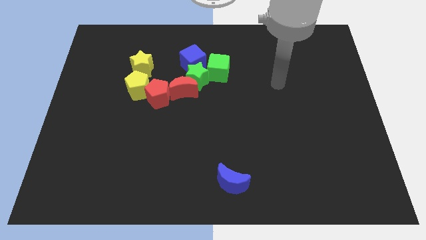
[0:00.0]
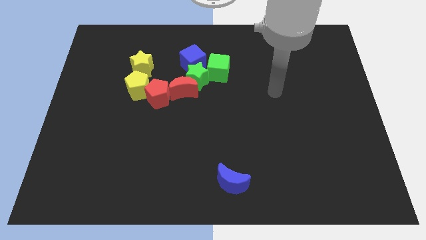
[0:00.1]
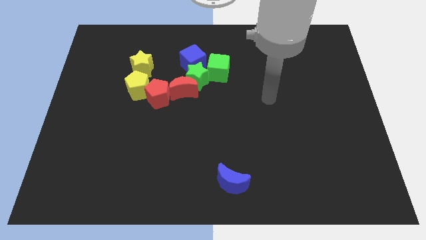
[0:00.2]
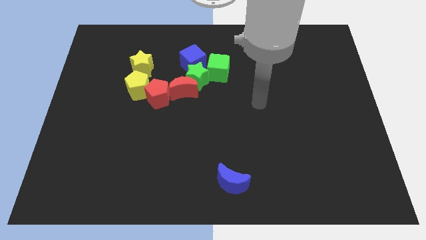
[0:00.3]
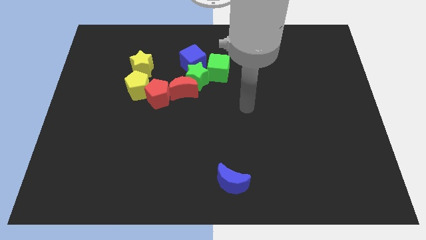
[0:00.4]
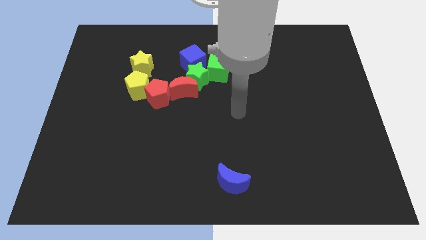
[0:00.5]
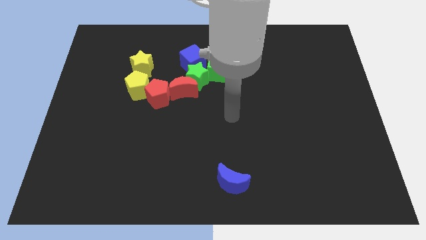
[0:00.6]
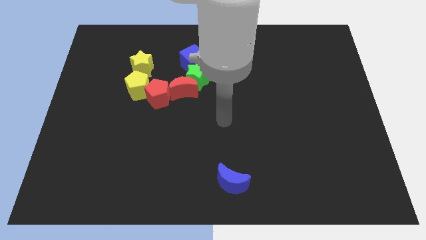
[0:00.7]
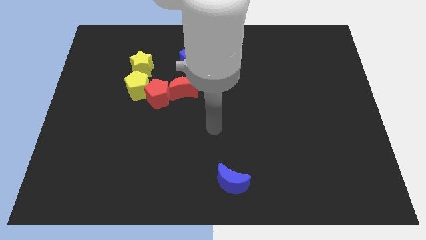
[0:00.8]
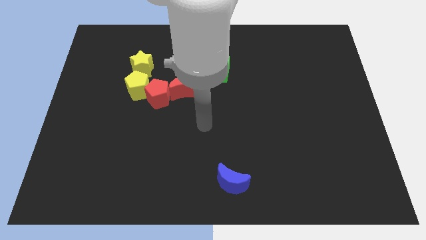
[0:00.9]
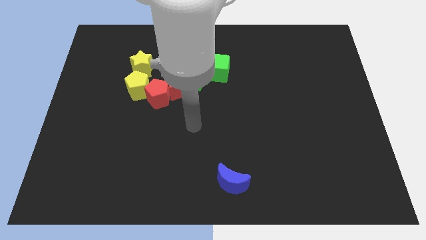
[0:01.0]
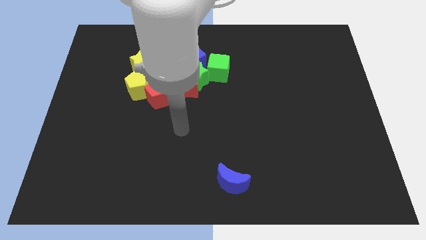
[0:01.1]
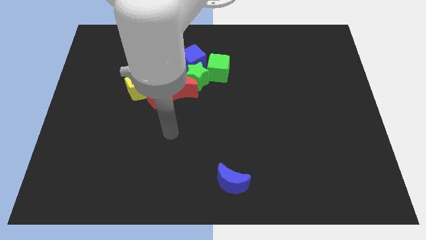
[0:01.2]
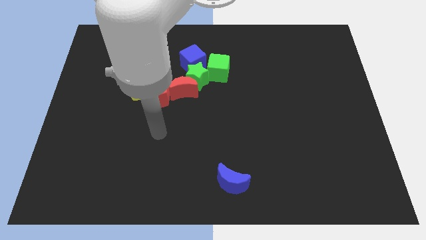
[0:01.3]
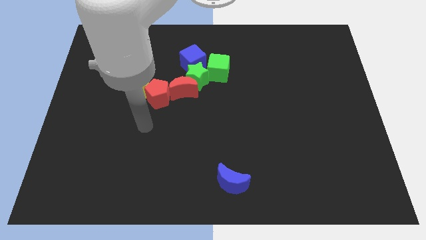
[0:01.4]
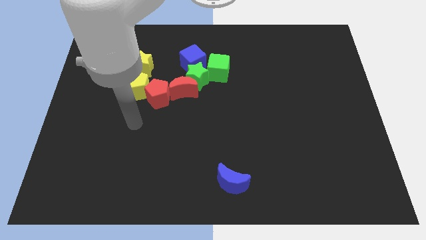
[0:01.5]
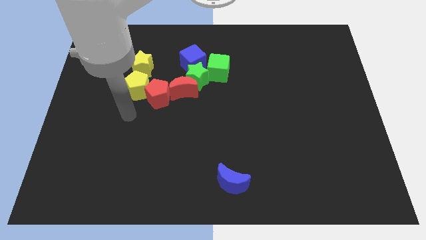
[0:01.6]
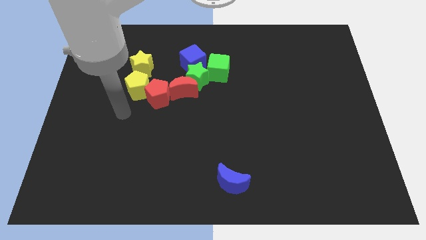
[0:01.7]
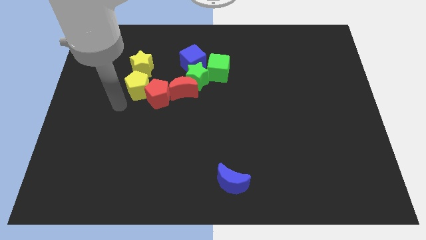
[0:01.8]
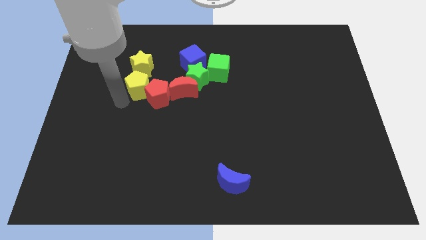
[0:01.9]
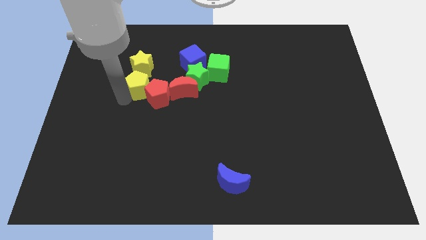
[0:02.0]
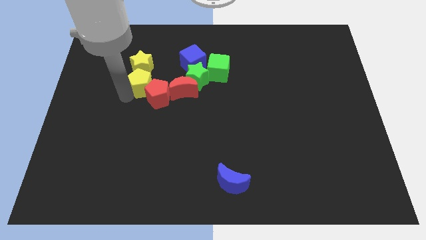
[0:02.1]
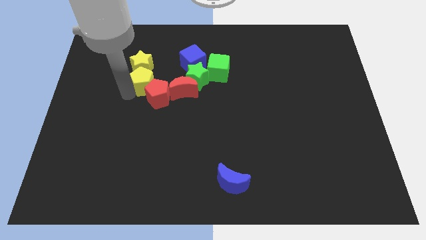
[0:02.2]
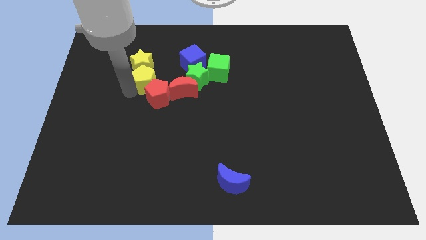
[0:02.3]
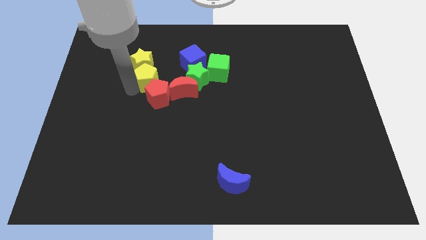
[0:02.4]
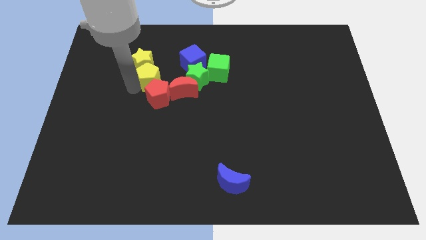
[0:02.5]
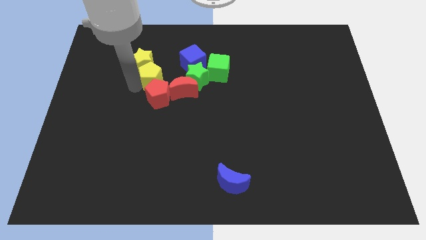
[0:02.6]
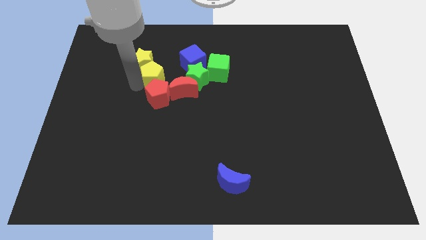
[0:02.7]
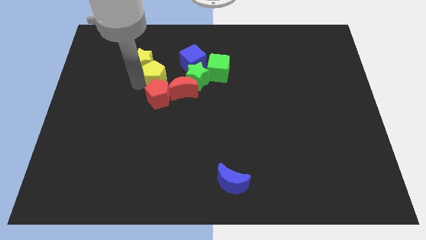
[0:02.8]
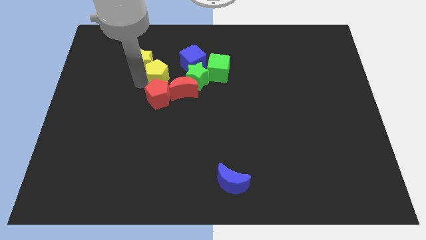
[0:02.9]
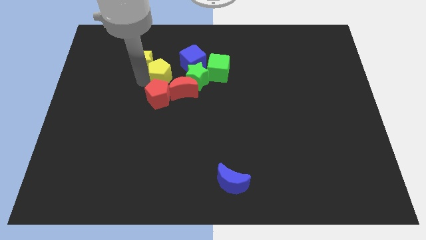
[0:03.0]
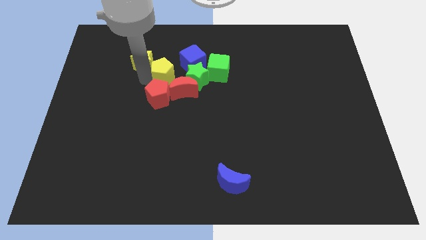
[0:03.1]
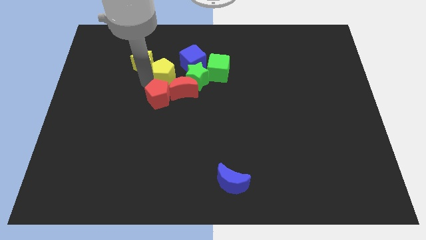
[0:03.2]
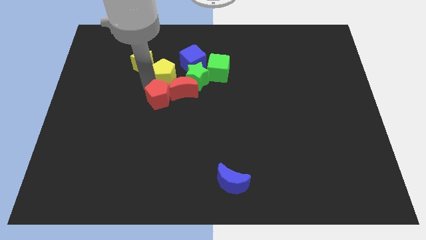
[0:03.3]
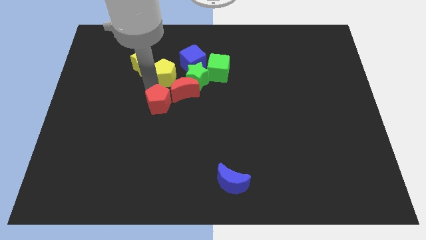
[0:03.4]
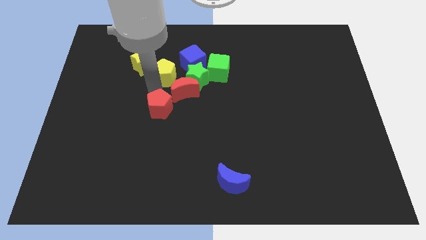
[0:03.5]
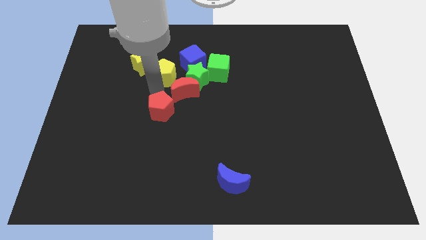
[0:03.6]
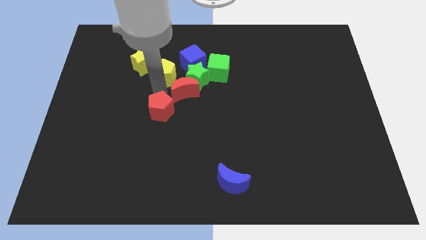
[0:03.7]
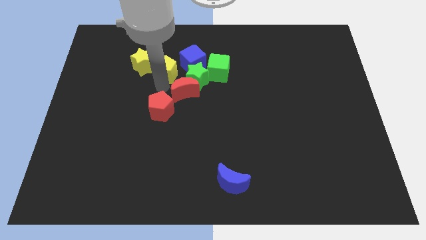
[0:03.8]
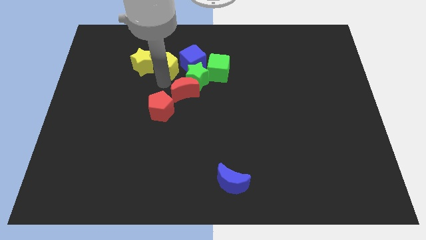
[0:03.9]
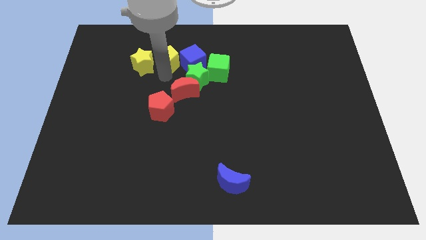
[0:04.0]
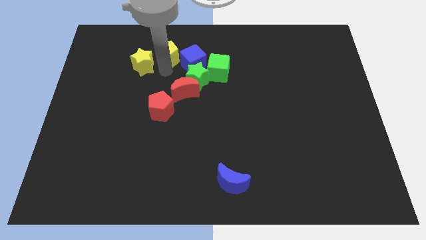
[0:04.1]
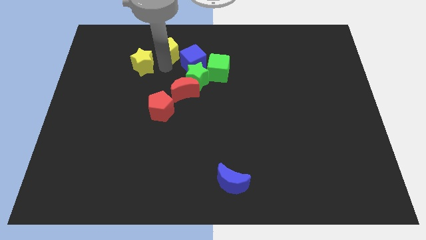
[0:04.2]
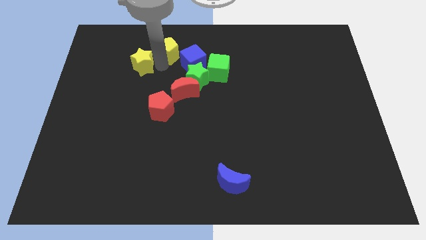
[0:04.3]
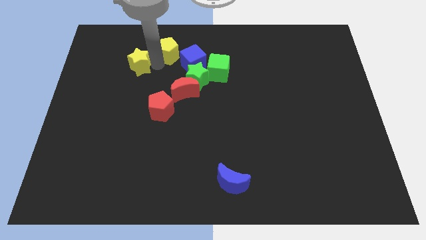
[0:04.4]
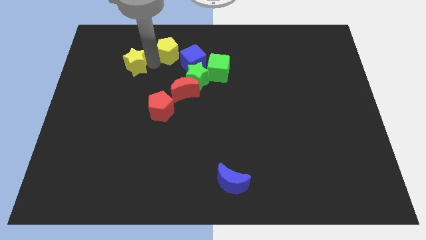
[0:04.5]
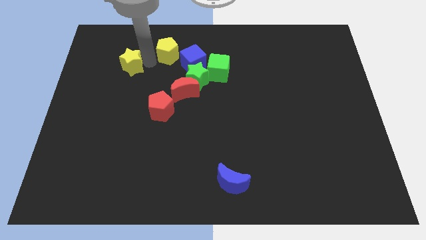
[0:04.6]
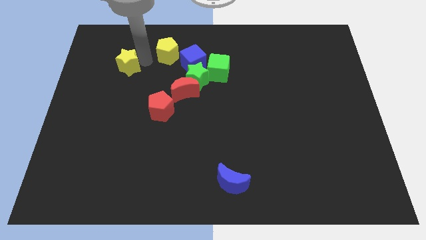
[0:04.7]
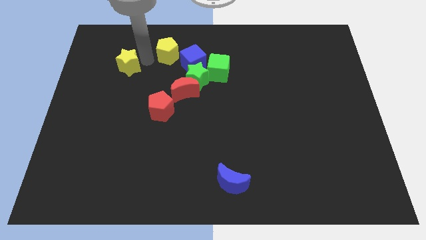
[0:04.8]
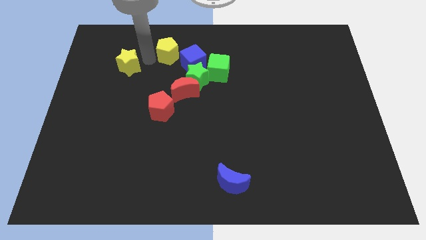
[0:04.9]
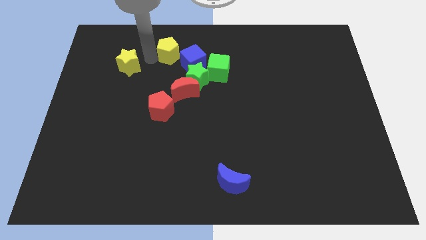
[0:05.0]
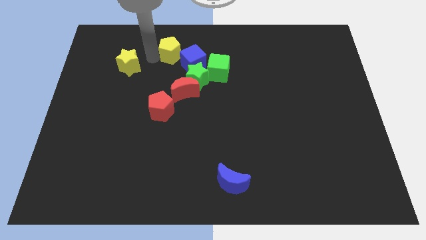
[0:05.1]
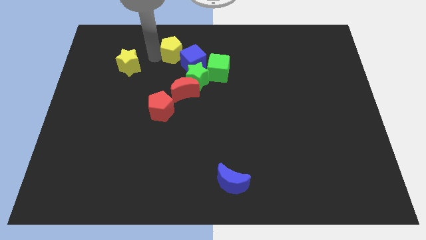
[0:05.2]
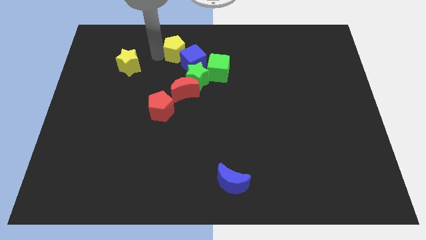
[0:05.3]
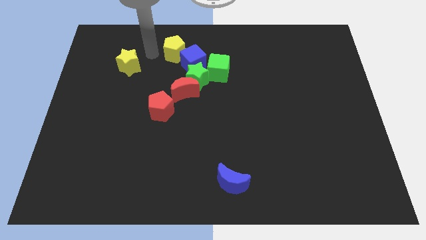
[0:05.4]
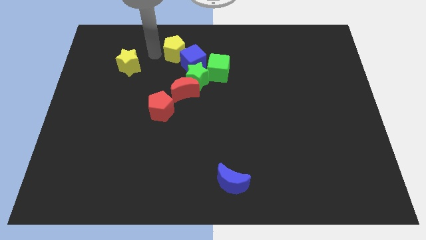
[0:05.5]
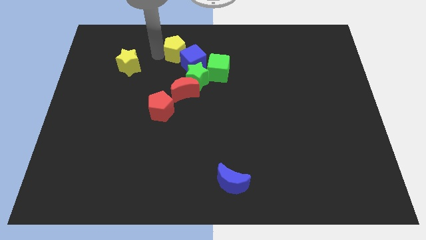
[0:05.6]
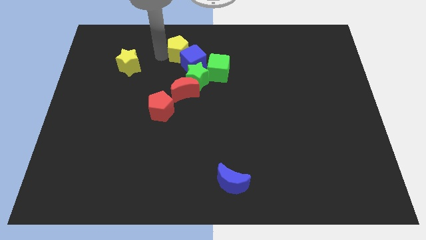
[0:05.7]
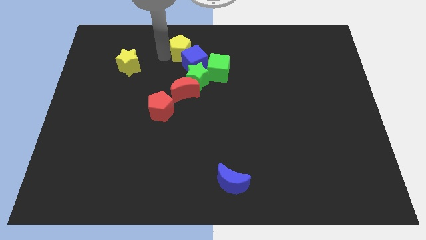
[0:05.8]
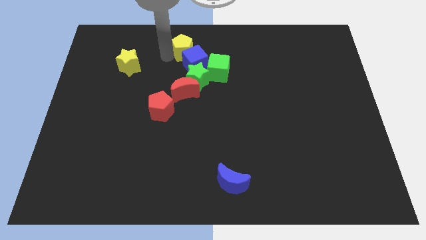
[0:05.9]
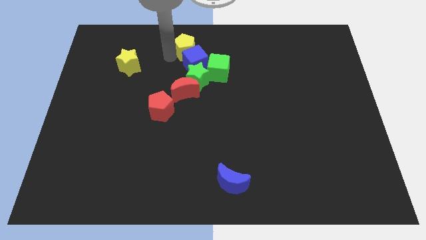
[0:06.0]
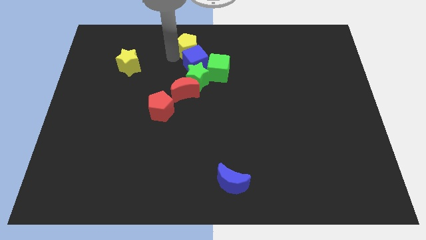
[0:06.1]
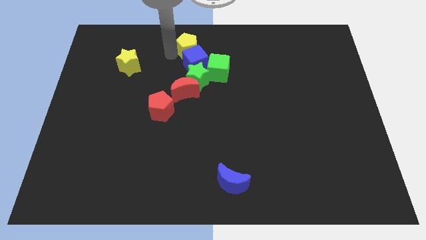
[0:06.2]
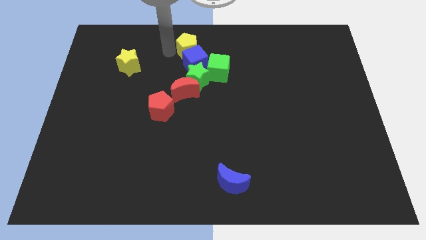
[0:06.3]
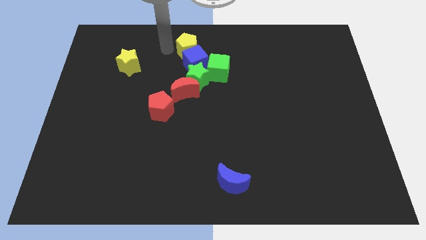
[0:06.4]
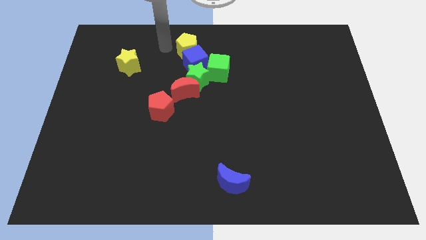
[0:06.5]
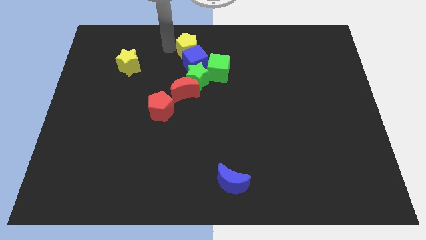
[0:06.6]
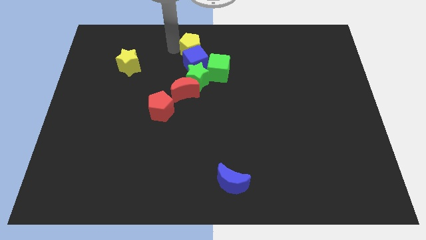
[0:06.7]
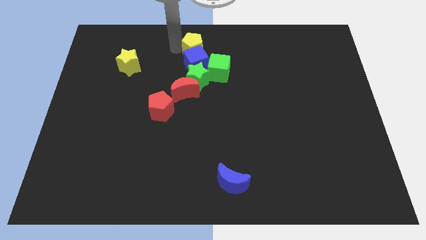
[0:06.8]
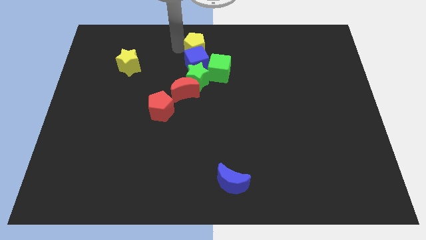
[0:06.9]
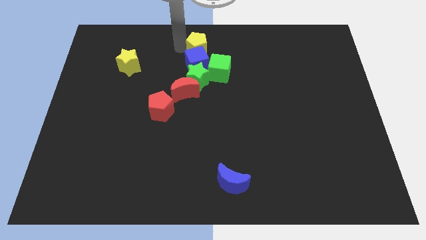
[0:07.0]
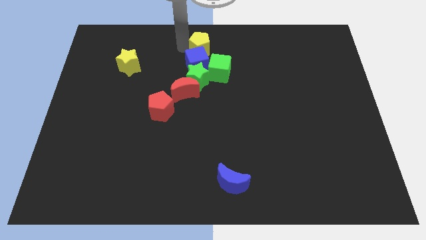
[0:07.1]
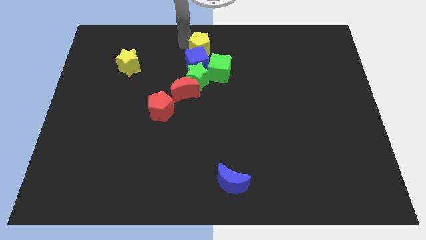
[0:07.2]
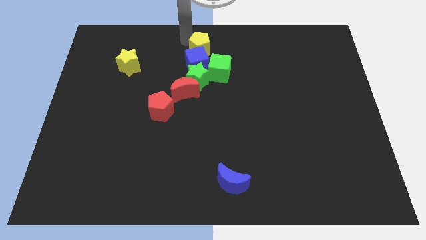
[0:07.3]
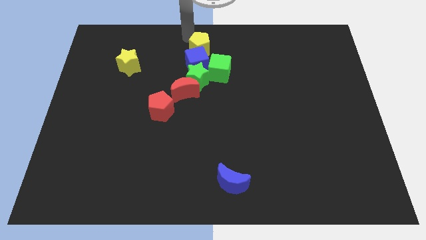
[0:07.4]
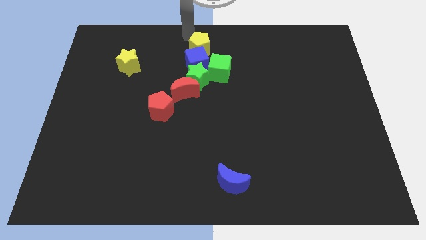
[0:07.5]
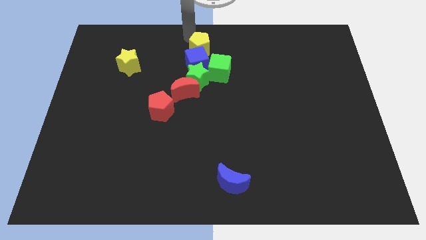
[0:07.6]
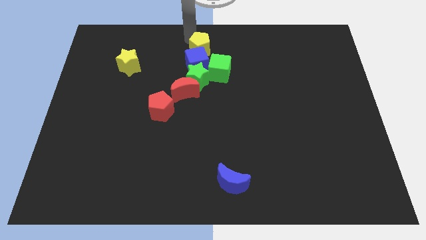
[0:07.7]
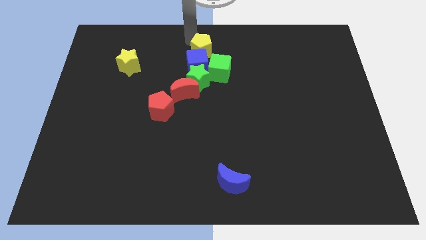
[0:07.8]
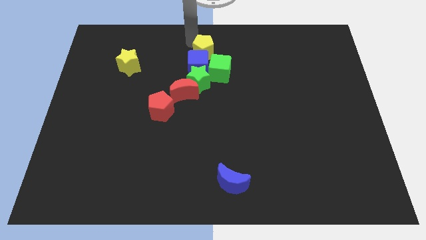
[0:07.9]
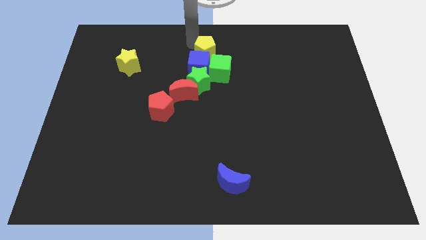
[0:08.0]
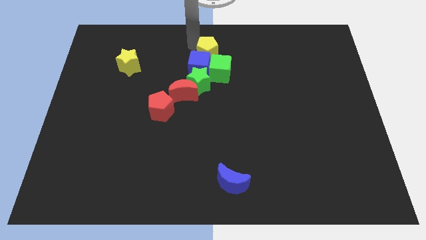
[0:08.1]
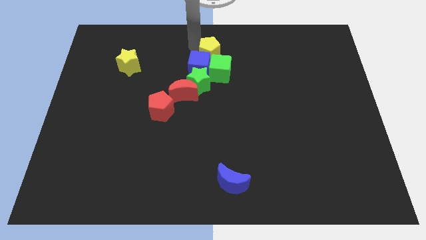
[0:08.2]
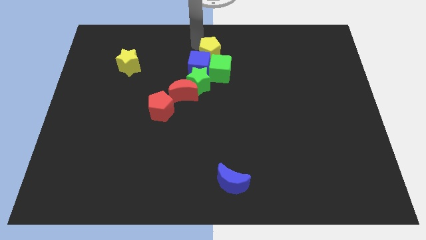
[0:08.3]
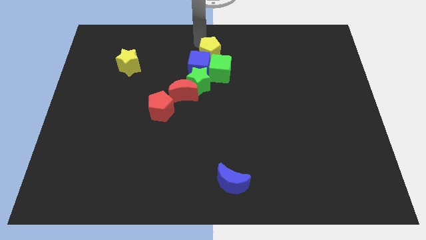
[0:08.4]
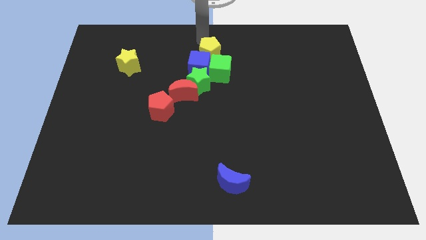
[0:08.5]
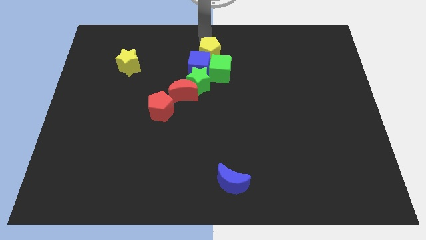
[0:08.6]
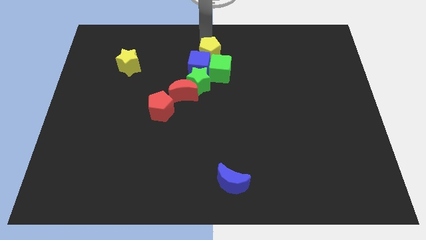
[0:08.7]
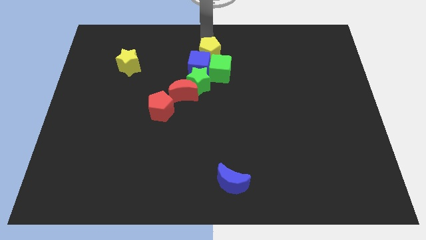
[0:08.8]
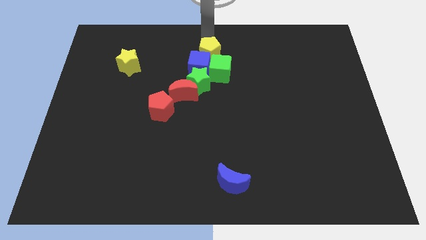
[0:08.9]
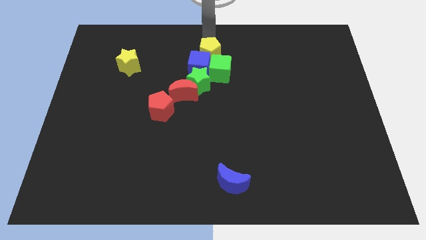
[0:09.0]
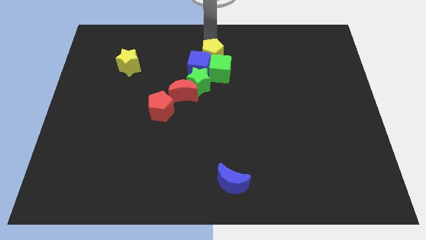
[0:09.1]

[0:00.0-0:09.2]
move the yellow pentagon towards the green cube
